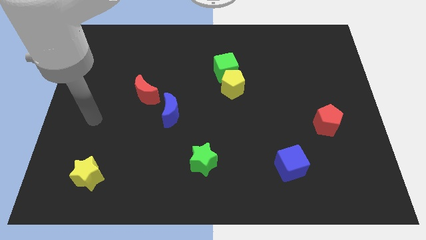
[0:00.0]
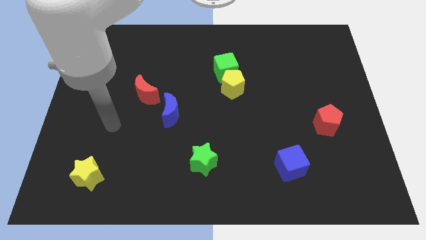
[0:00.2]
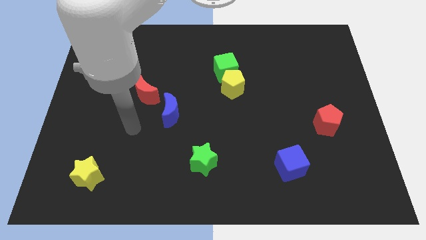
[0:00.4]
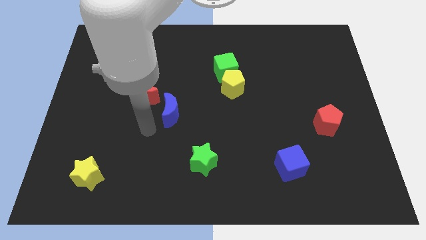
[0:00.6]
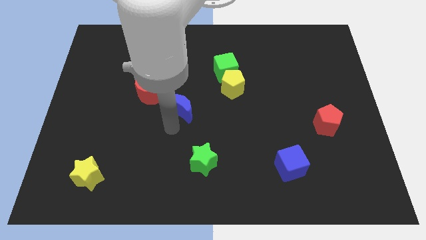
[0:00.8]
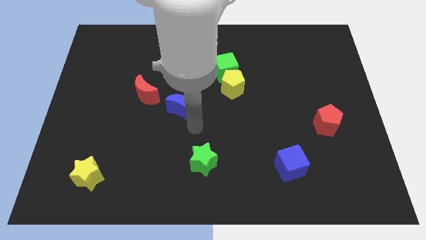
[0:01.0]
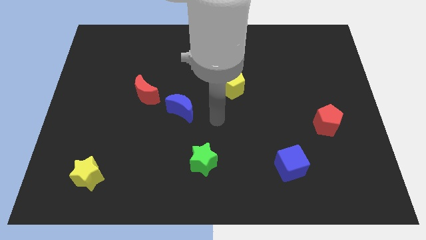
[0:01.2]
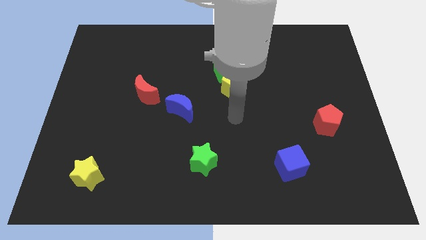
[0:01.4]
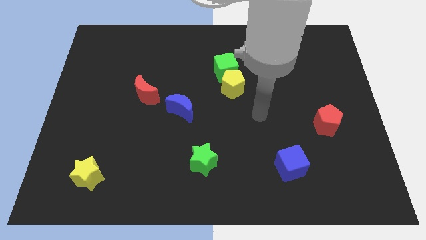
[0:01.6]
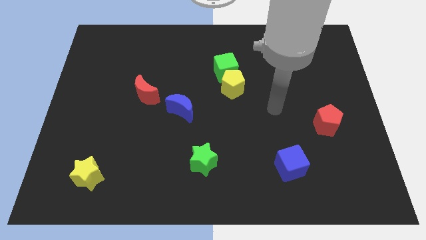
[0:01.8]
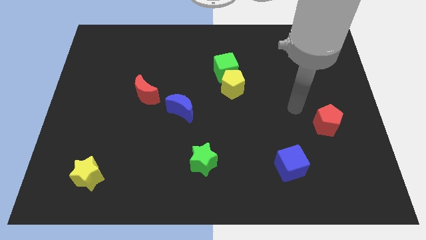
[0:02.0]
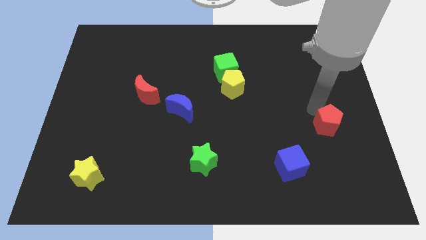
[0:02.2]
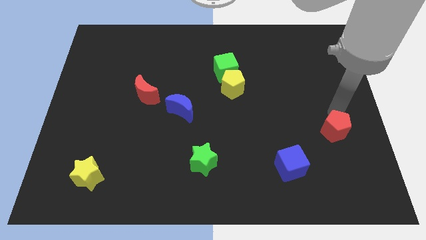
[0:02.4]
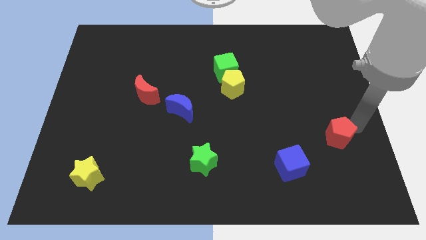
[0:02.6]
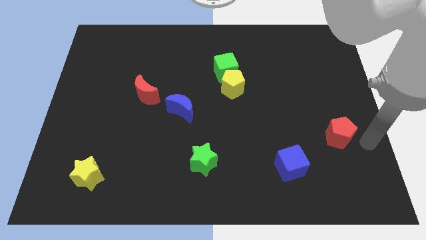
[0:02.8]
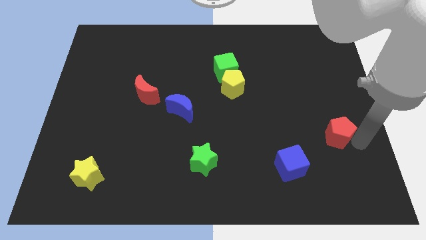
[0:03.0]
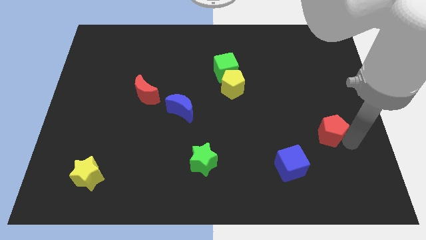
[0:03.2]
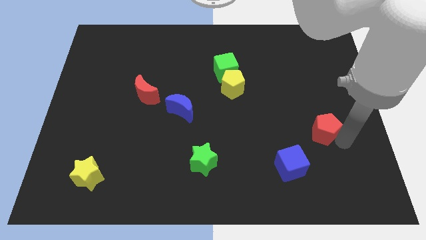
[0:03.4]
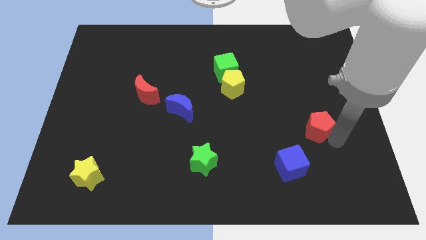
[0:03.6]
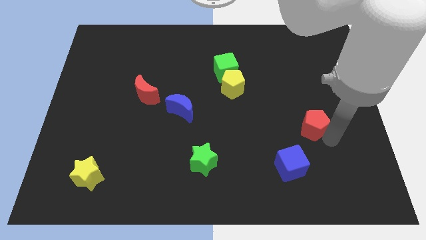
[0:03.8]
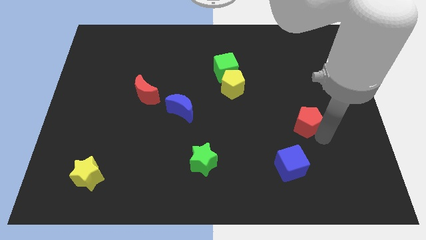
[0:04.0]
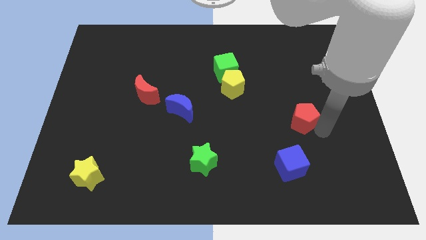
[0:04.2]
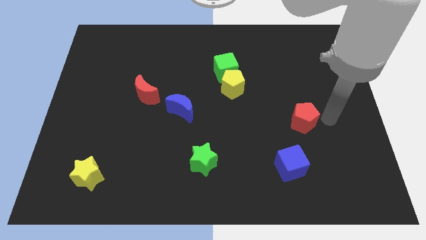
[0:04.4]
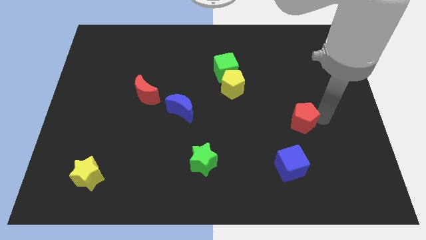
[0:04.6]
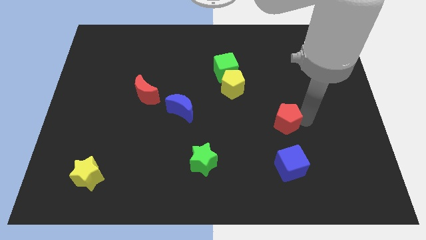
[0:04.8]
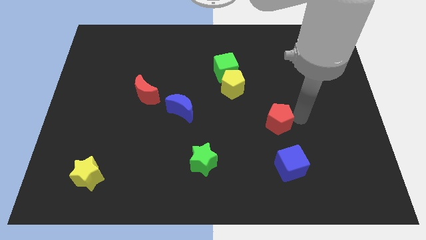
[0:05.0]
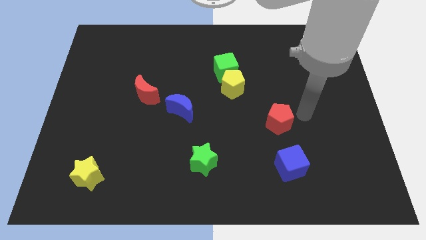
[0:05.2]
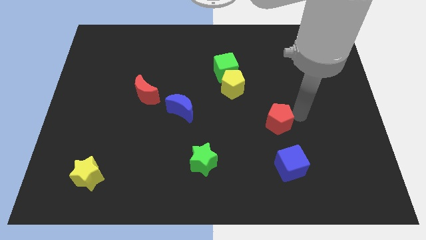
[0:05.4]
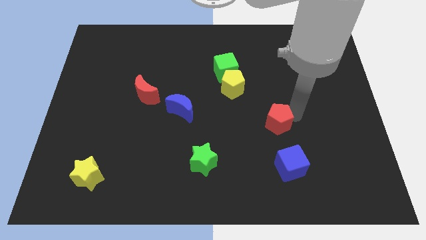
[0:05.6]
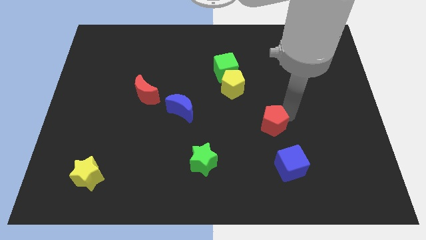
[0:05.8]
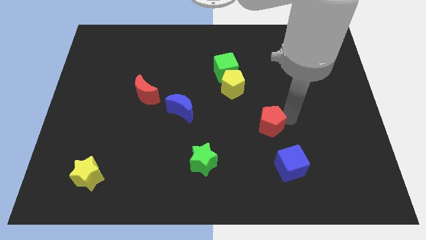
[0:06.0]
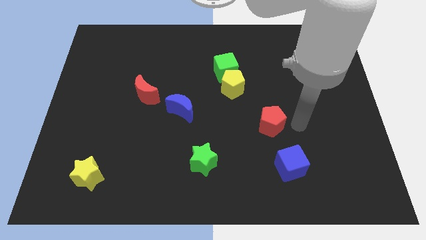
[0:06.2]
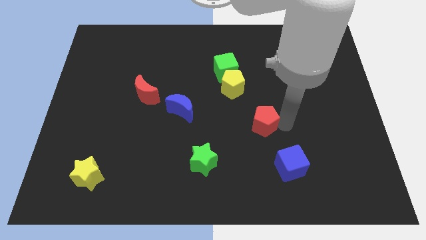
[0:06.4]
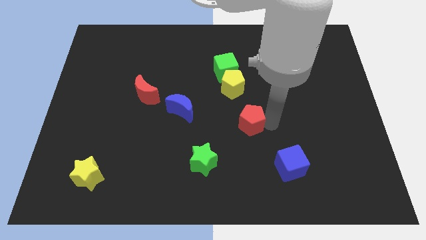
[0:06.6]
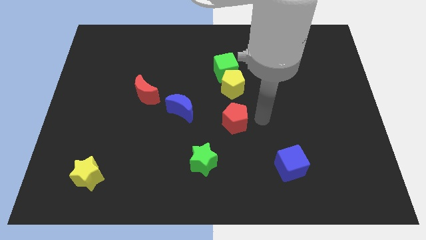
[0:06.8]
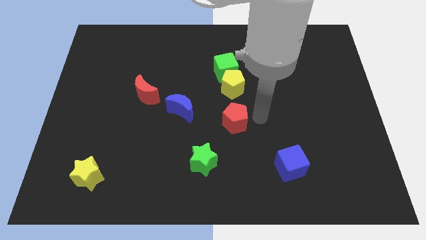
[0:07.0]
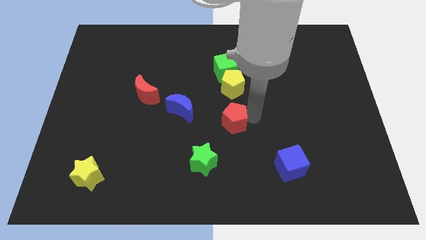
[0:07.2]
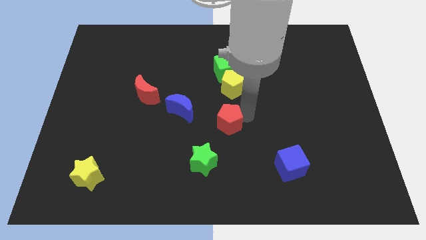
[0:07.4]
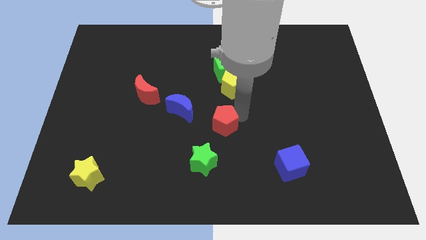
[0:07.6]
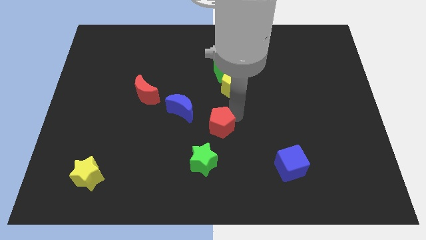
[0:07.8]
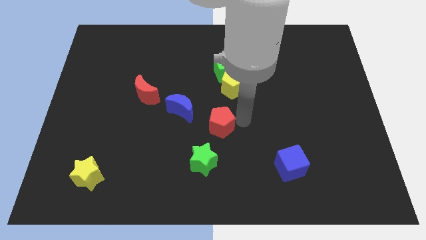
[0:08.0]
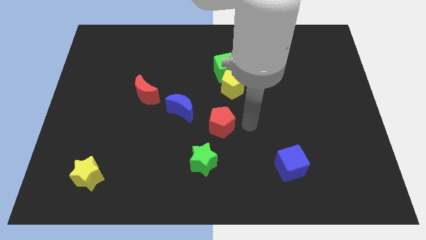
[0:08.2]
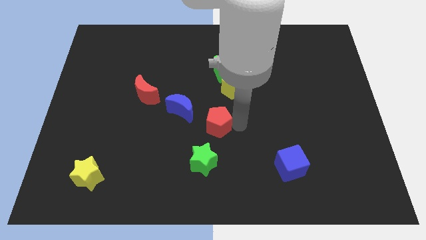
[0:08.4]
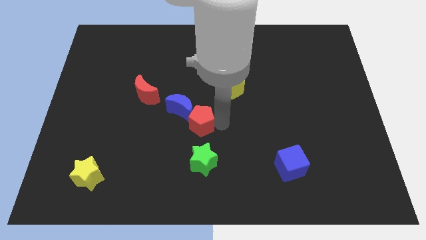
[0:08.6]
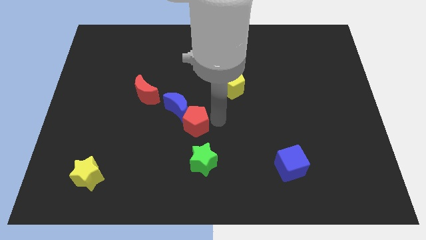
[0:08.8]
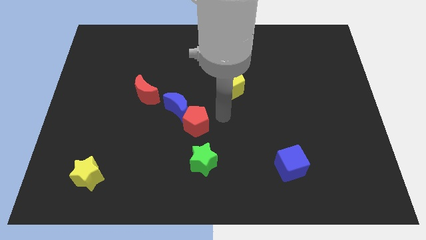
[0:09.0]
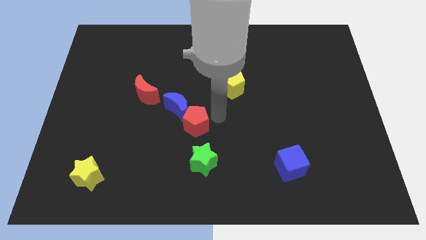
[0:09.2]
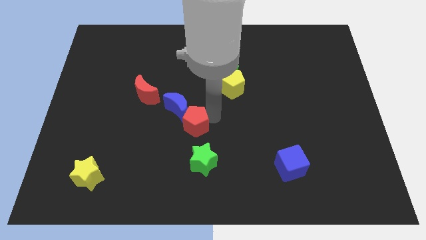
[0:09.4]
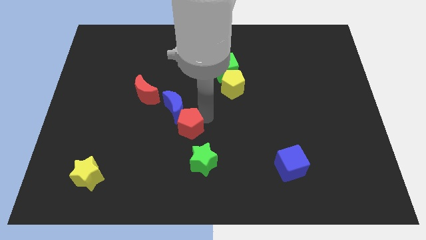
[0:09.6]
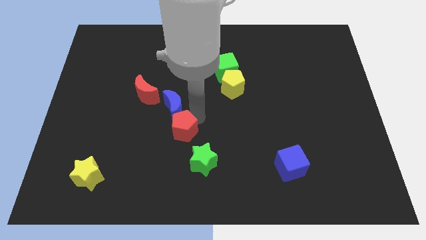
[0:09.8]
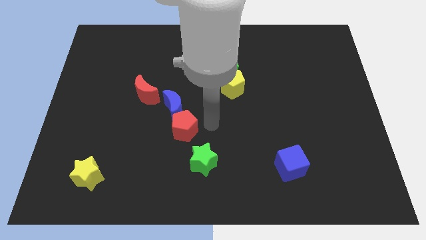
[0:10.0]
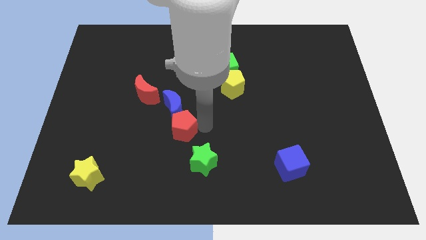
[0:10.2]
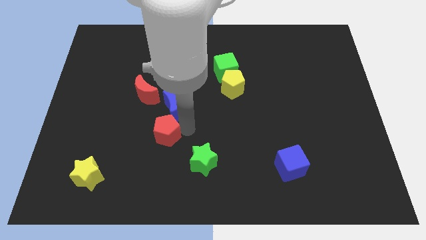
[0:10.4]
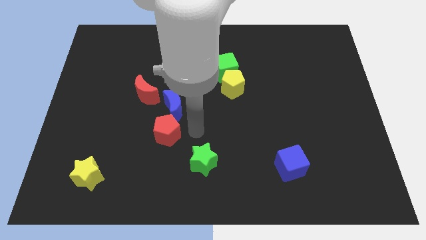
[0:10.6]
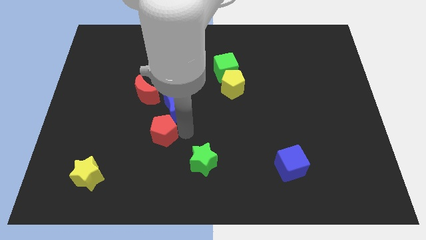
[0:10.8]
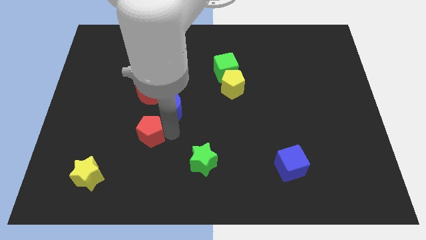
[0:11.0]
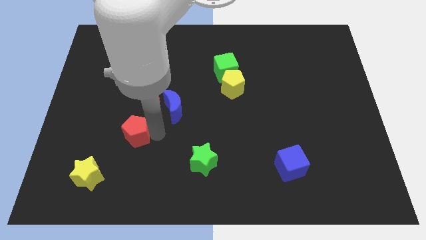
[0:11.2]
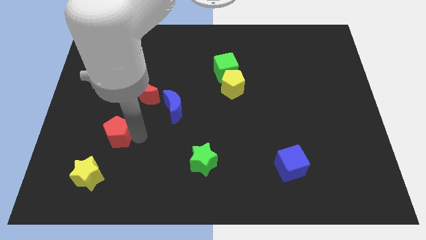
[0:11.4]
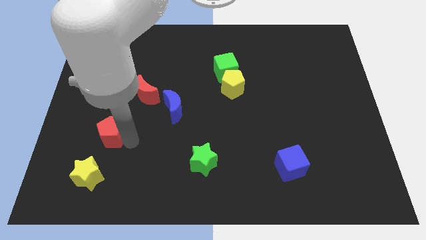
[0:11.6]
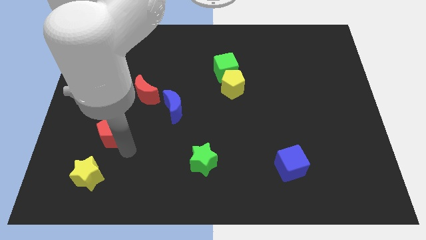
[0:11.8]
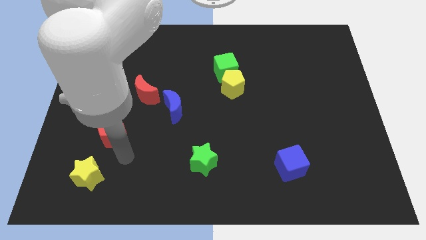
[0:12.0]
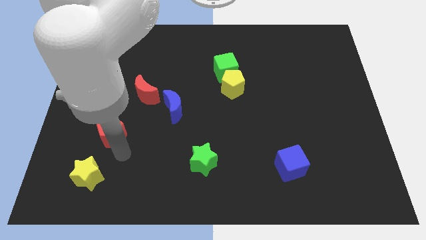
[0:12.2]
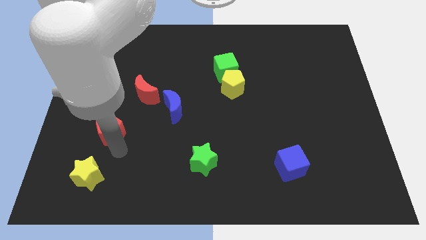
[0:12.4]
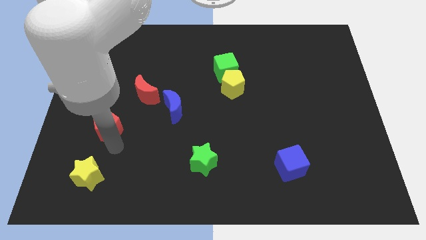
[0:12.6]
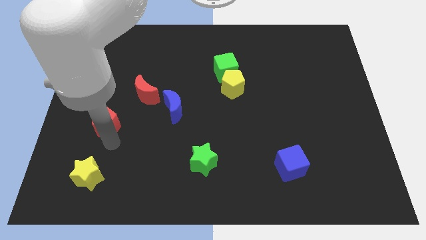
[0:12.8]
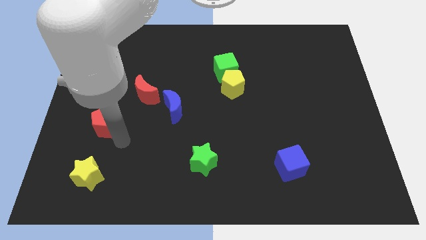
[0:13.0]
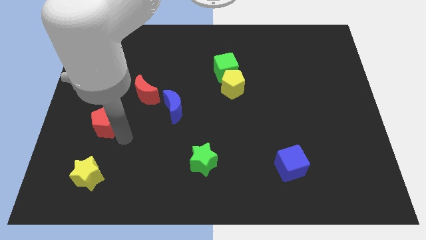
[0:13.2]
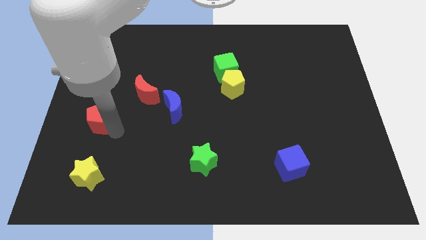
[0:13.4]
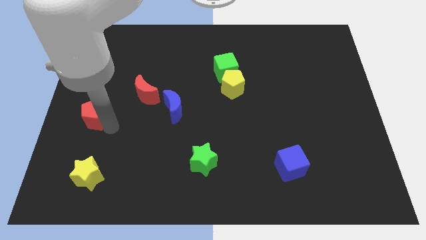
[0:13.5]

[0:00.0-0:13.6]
put the red pentagon to the left side of the board

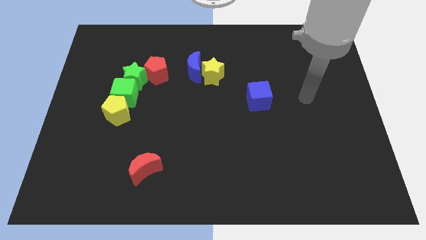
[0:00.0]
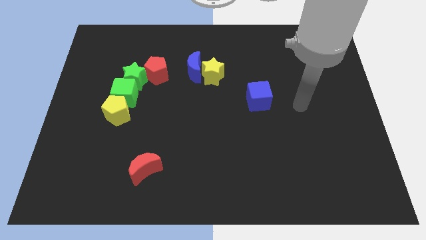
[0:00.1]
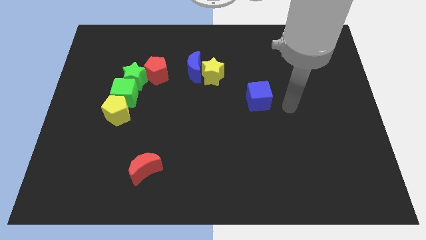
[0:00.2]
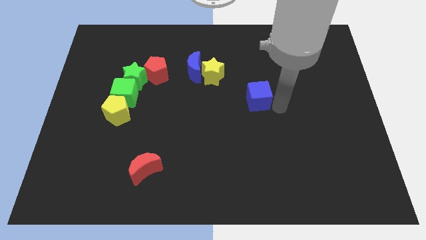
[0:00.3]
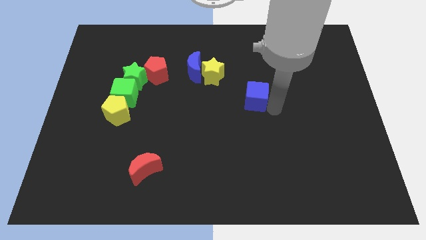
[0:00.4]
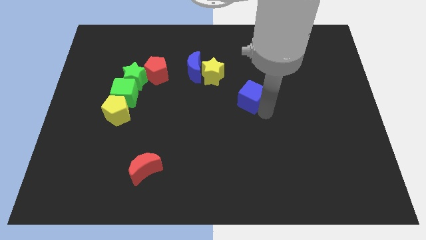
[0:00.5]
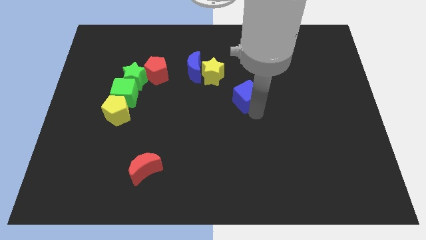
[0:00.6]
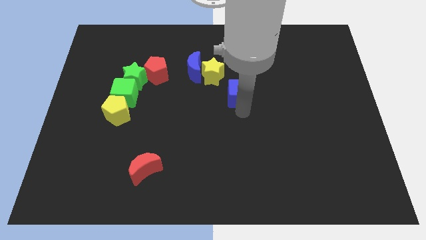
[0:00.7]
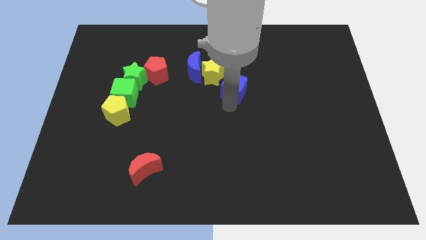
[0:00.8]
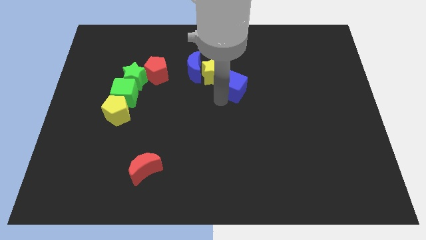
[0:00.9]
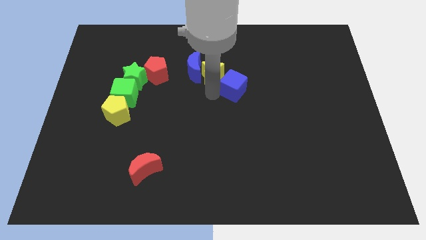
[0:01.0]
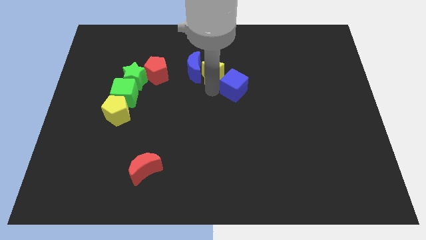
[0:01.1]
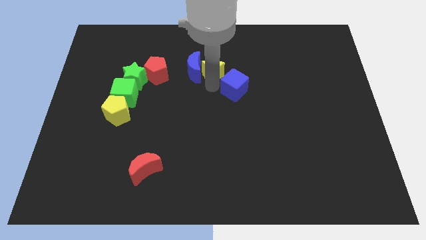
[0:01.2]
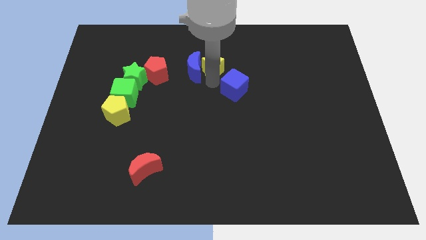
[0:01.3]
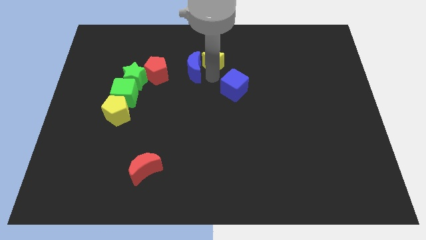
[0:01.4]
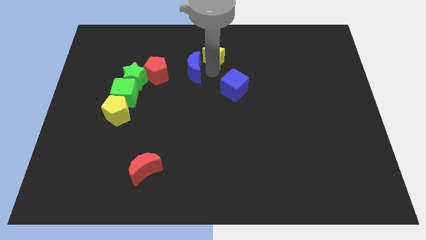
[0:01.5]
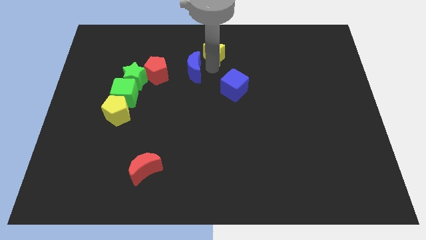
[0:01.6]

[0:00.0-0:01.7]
slide the yellow star to the top
